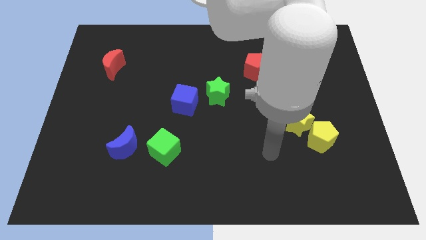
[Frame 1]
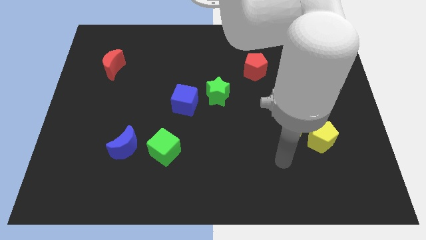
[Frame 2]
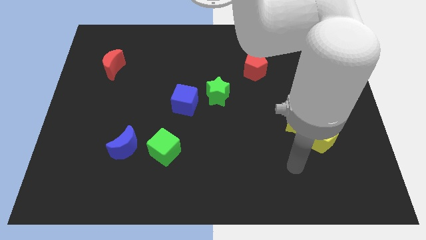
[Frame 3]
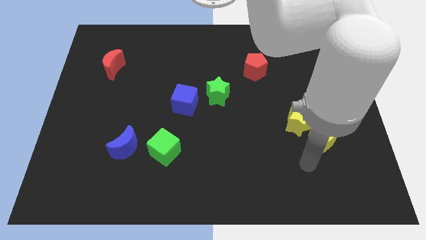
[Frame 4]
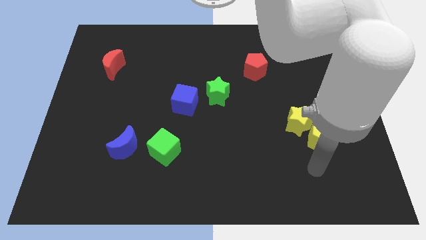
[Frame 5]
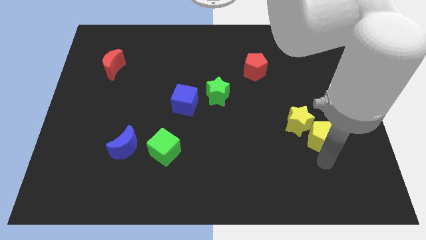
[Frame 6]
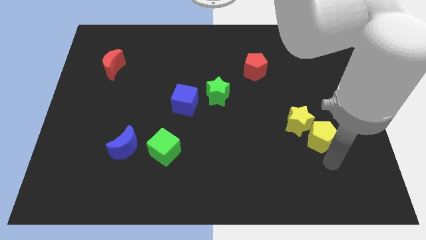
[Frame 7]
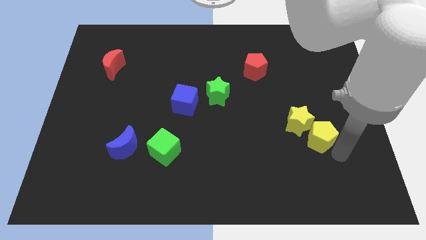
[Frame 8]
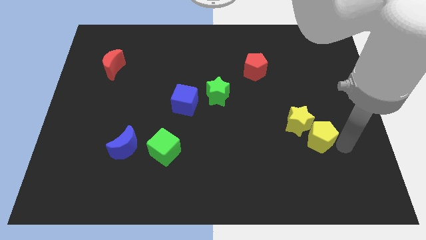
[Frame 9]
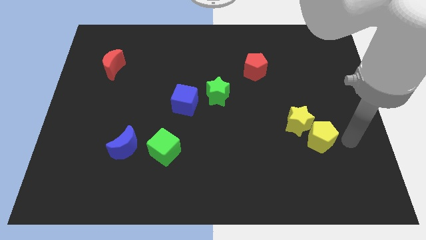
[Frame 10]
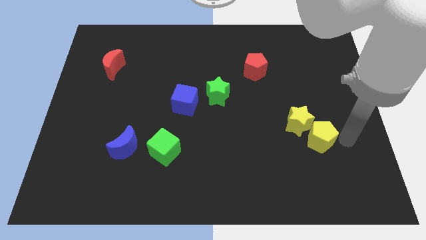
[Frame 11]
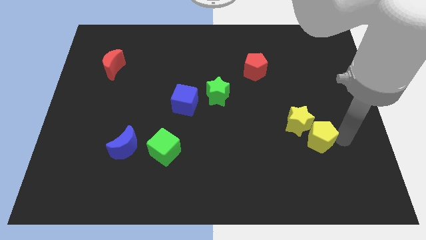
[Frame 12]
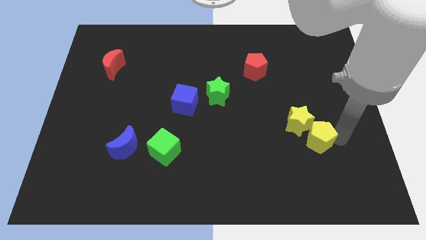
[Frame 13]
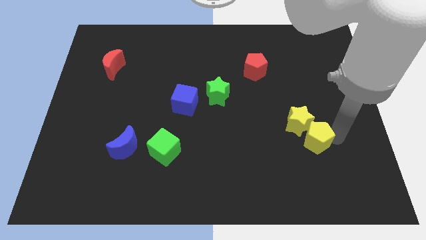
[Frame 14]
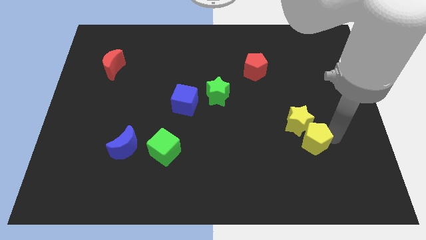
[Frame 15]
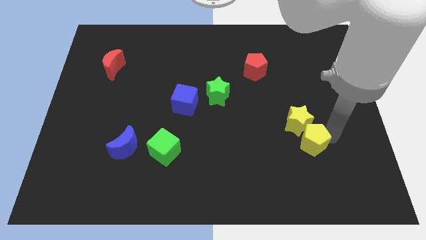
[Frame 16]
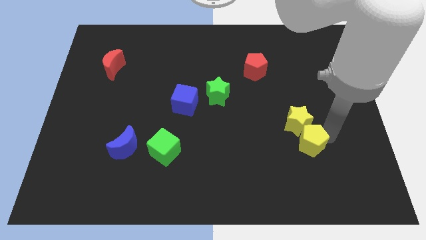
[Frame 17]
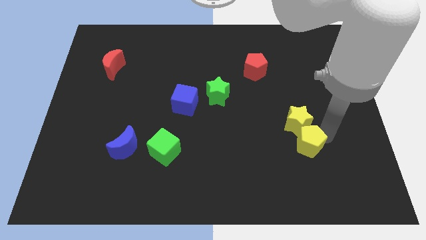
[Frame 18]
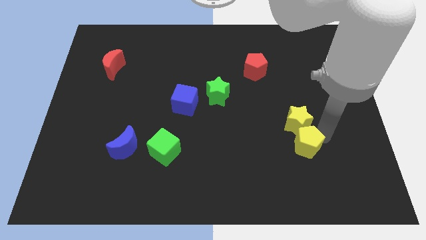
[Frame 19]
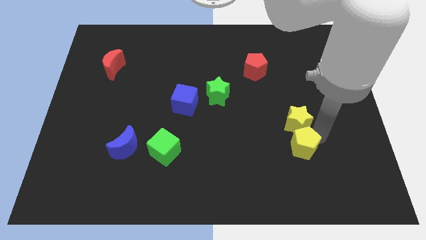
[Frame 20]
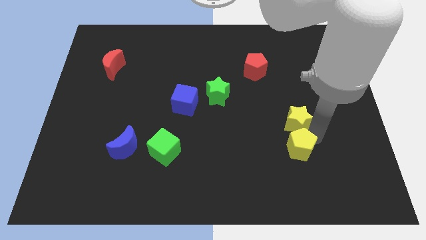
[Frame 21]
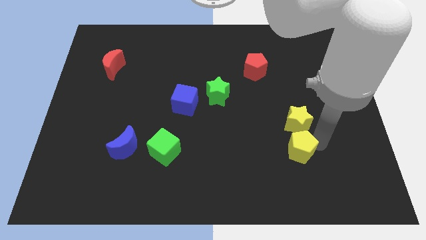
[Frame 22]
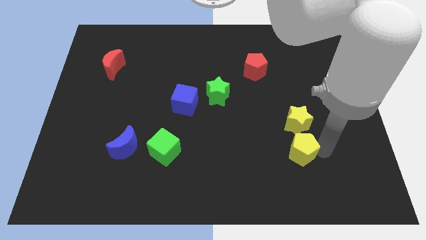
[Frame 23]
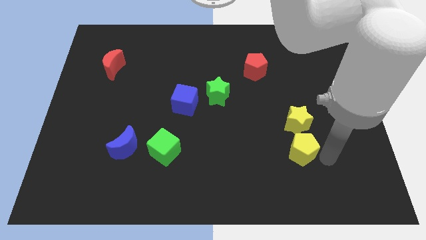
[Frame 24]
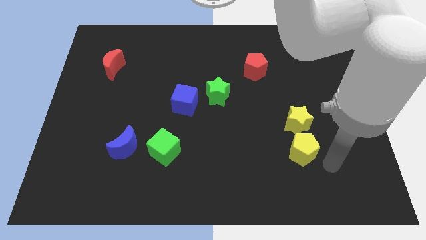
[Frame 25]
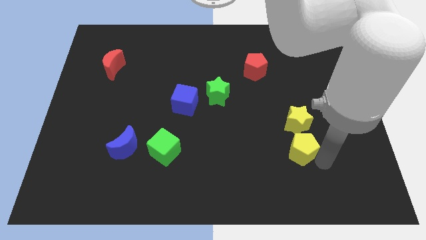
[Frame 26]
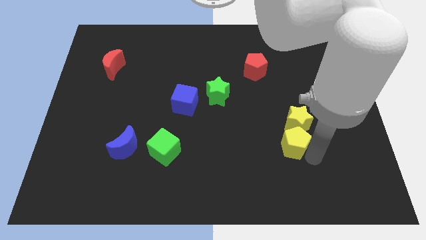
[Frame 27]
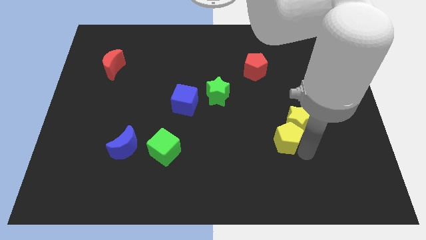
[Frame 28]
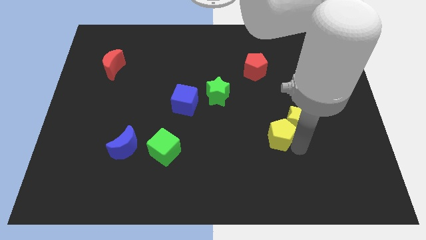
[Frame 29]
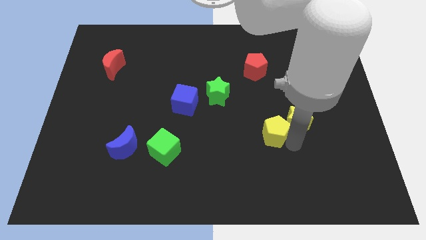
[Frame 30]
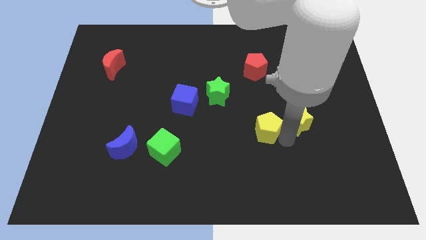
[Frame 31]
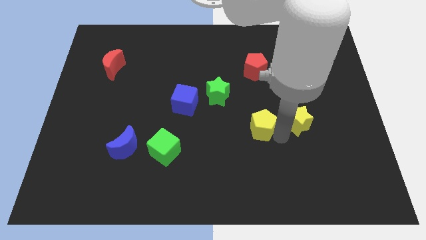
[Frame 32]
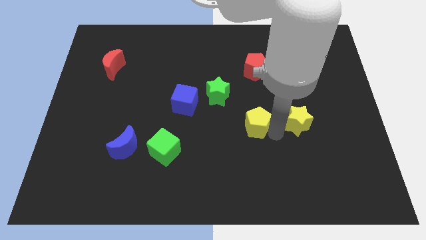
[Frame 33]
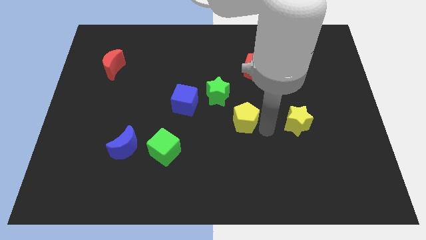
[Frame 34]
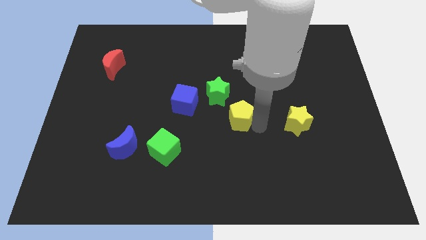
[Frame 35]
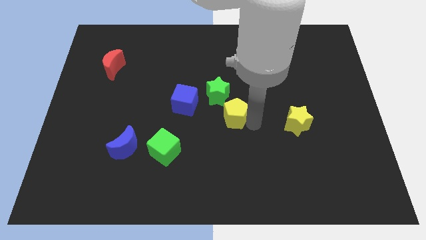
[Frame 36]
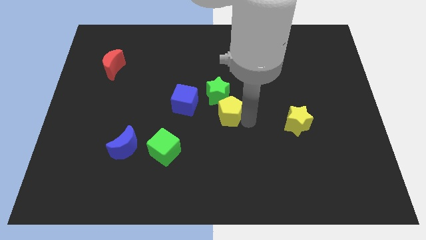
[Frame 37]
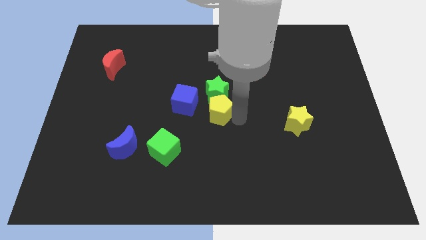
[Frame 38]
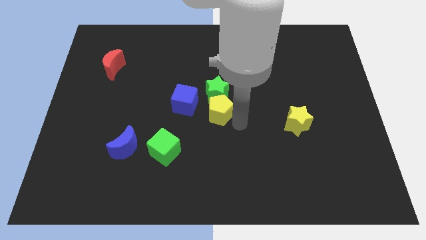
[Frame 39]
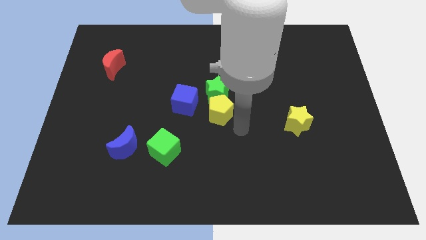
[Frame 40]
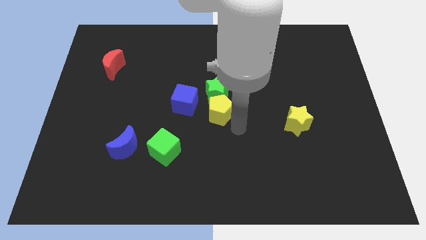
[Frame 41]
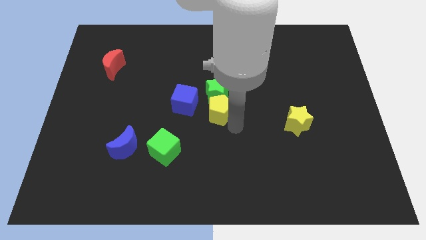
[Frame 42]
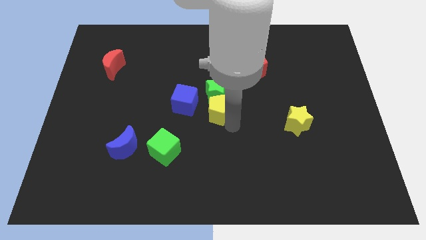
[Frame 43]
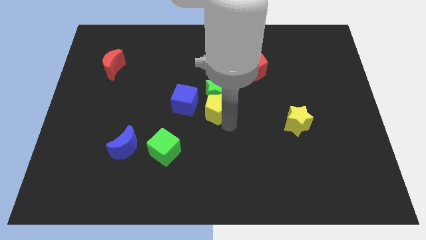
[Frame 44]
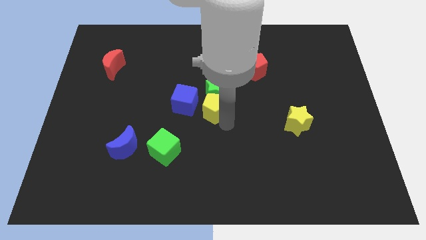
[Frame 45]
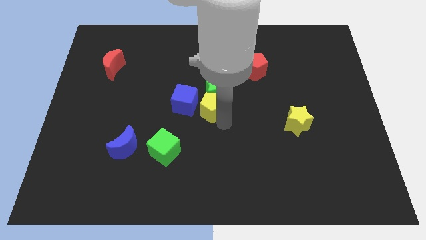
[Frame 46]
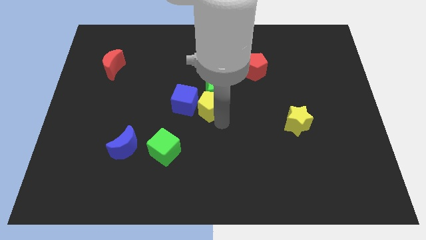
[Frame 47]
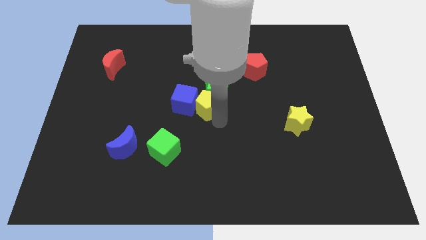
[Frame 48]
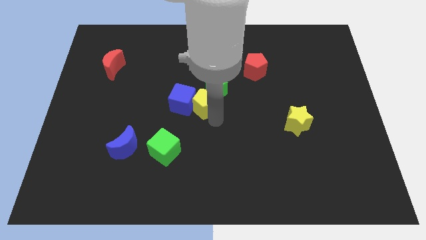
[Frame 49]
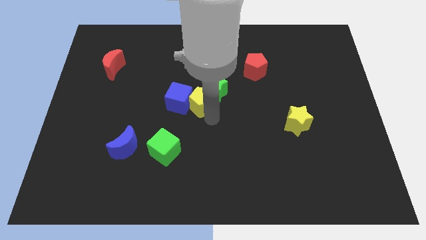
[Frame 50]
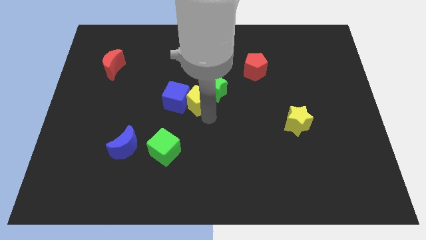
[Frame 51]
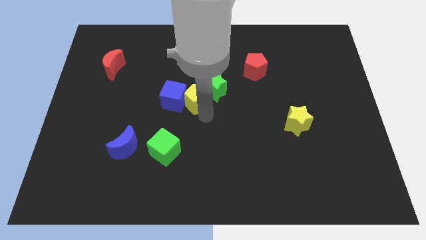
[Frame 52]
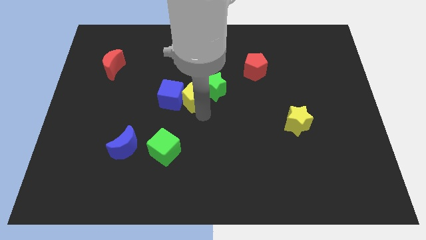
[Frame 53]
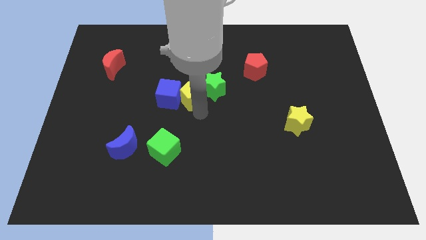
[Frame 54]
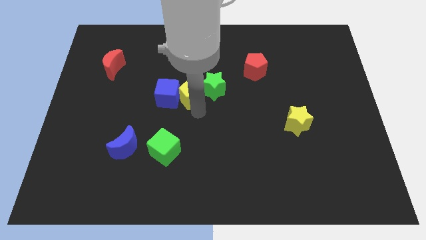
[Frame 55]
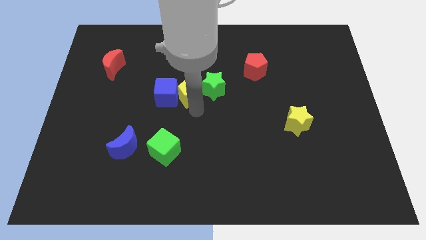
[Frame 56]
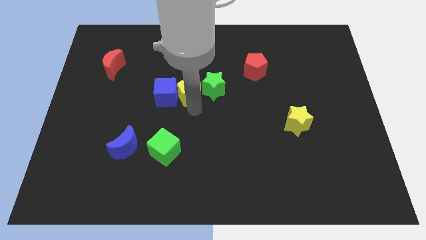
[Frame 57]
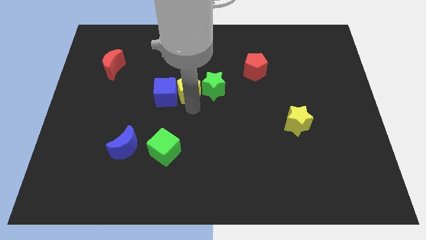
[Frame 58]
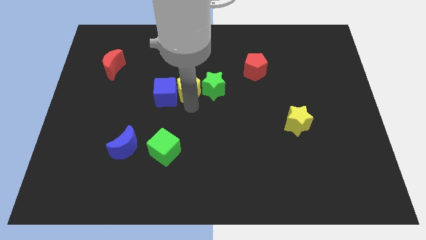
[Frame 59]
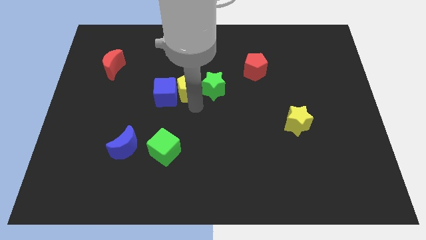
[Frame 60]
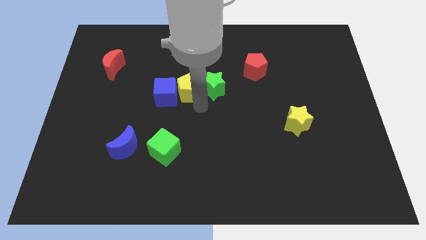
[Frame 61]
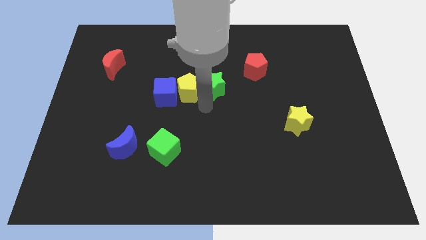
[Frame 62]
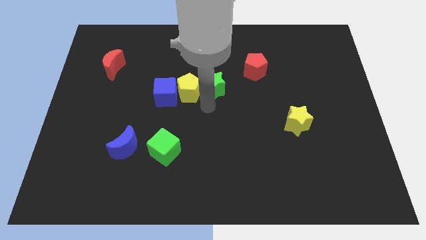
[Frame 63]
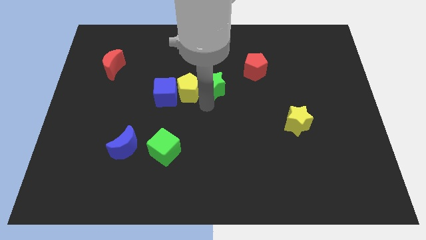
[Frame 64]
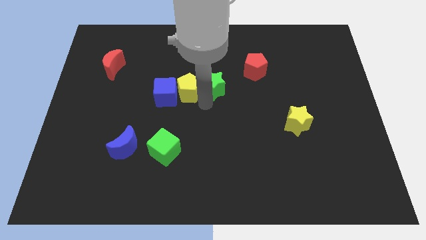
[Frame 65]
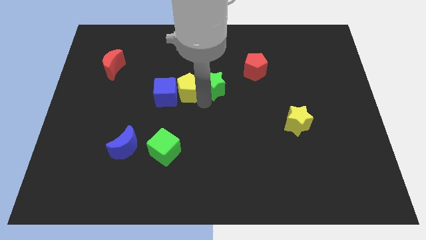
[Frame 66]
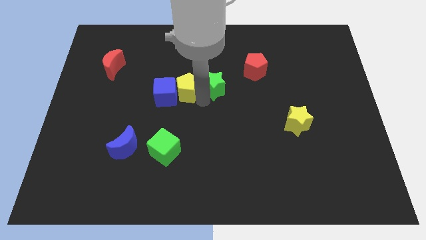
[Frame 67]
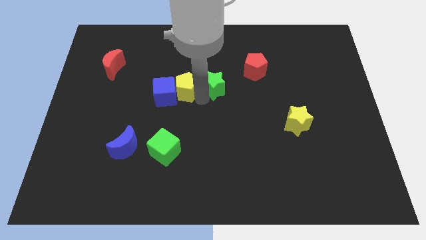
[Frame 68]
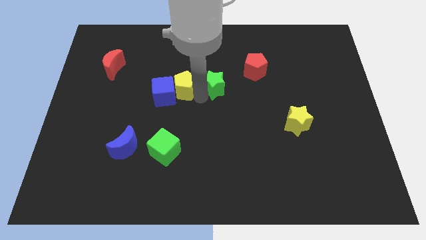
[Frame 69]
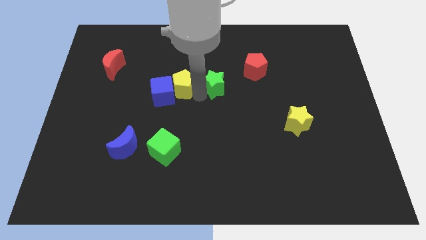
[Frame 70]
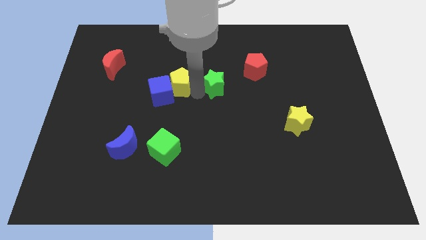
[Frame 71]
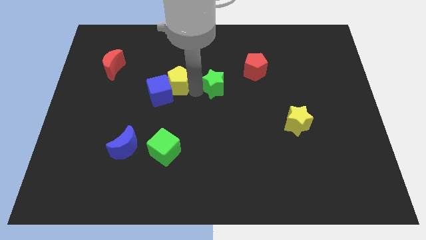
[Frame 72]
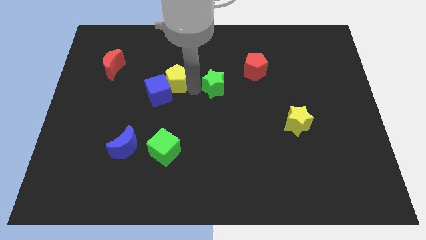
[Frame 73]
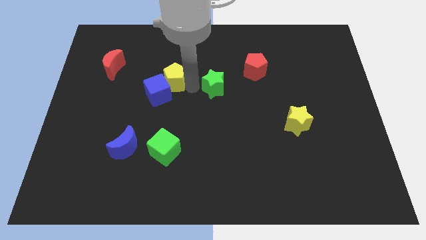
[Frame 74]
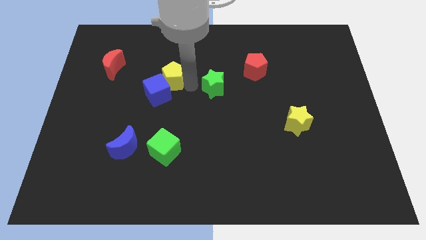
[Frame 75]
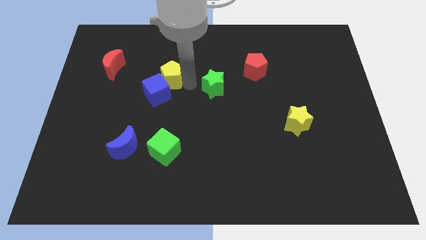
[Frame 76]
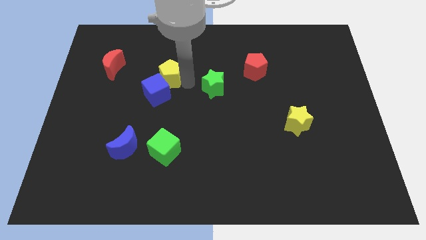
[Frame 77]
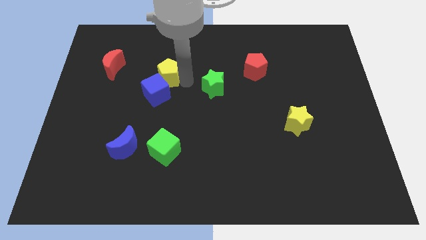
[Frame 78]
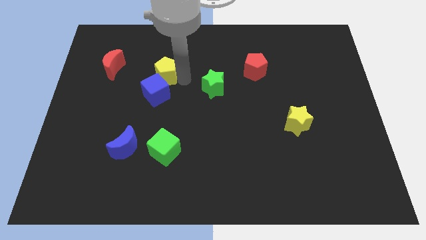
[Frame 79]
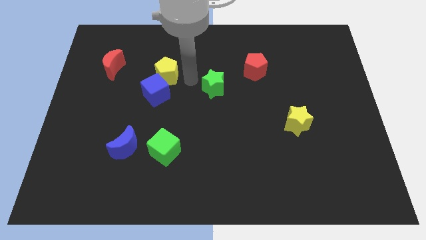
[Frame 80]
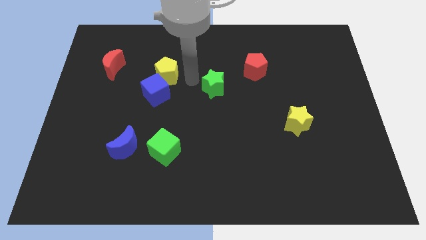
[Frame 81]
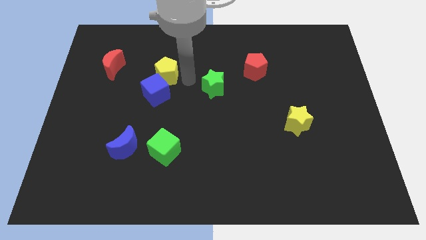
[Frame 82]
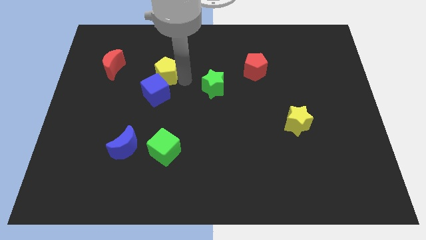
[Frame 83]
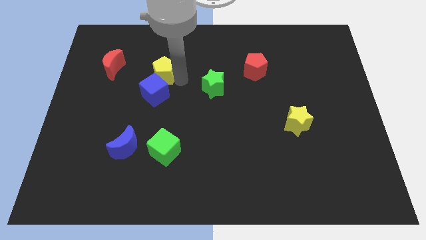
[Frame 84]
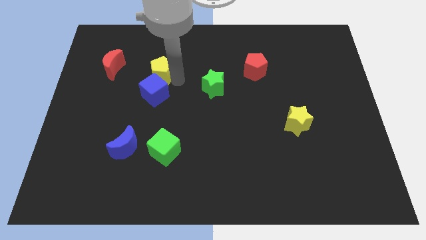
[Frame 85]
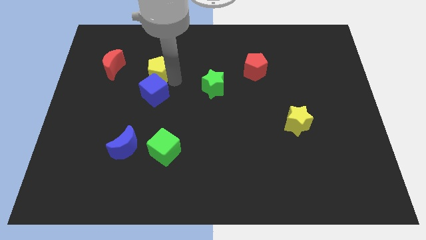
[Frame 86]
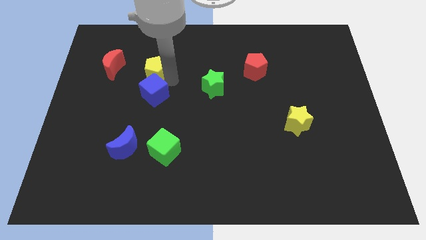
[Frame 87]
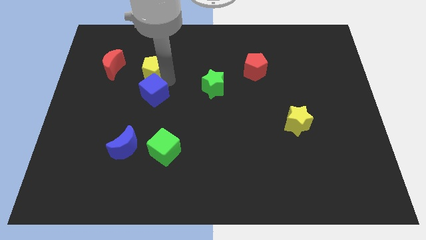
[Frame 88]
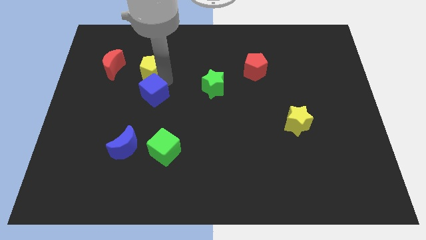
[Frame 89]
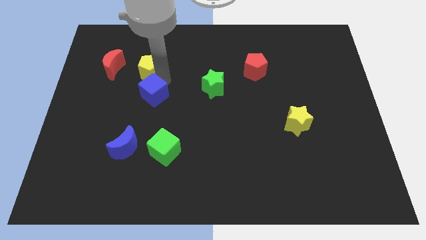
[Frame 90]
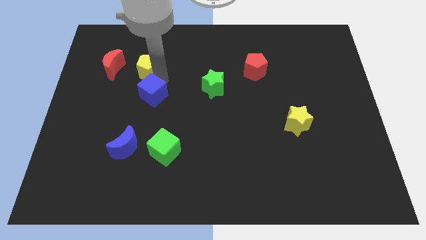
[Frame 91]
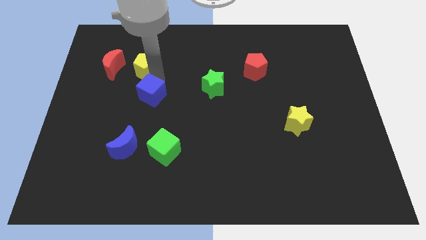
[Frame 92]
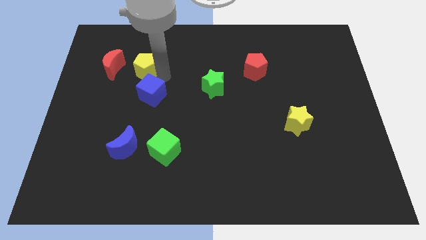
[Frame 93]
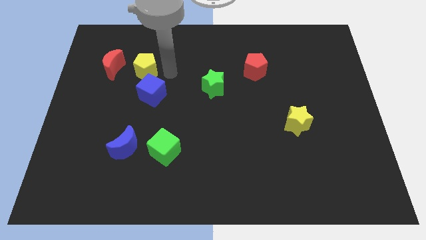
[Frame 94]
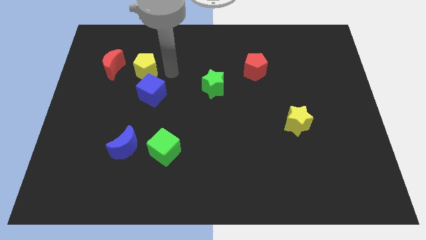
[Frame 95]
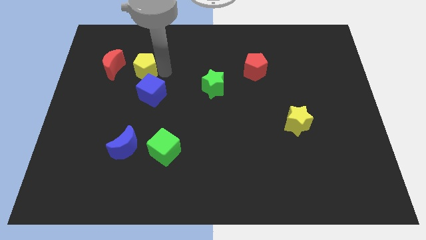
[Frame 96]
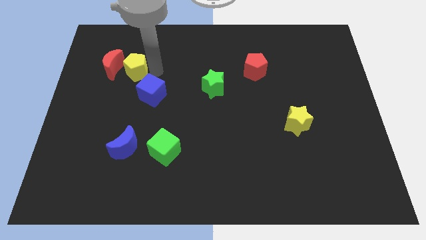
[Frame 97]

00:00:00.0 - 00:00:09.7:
put the yellow pentagon to the red moon
